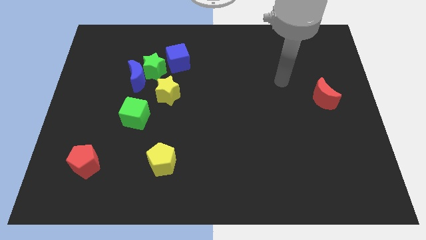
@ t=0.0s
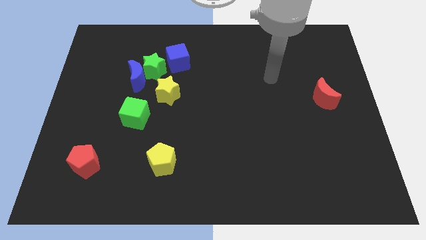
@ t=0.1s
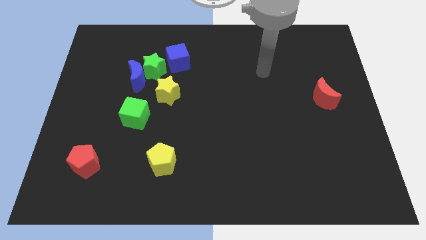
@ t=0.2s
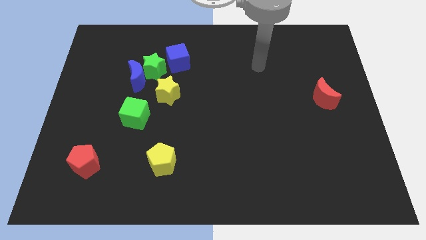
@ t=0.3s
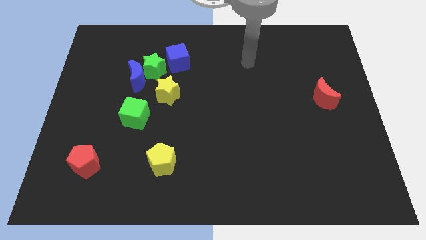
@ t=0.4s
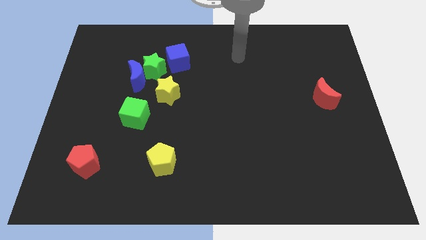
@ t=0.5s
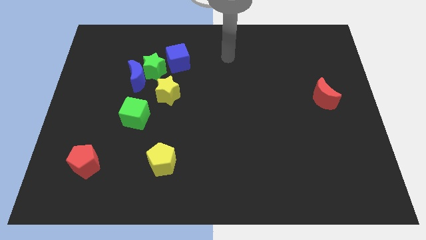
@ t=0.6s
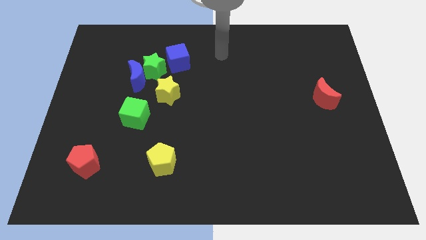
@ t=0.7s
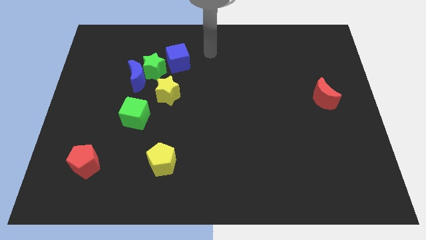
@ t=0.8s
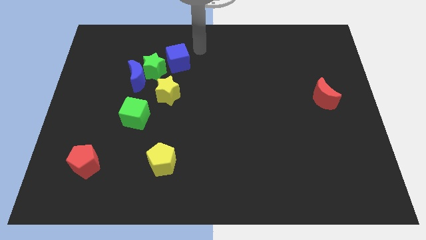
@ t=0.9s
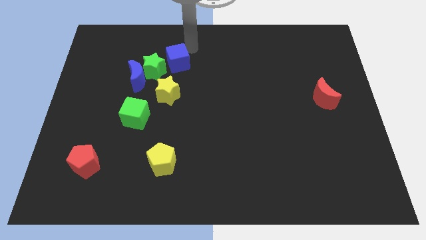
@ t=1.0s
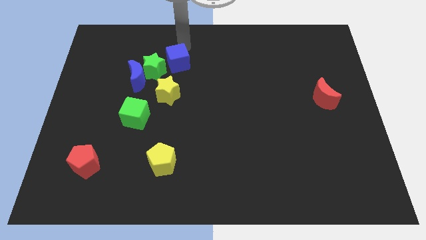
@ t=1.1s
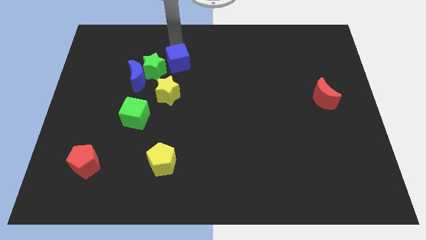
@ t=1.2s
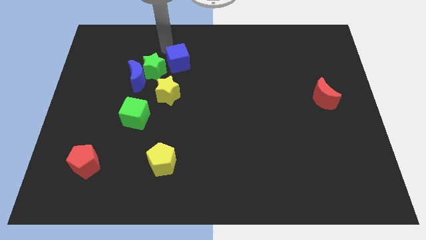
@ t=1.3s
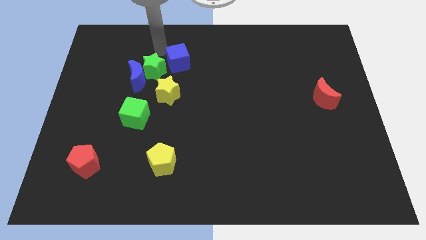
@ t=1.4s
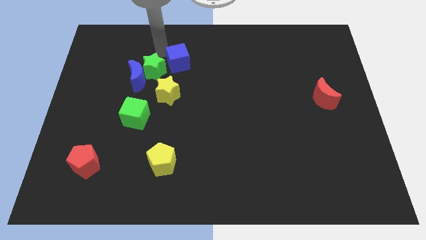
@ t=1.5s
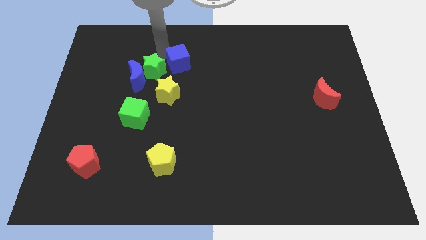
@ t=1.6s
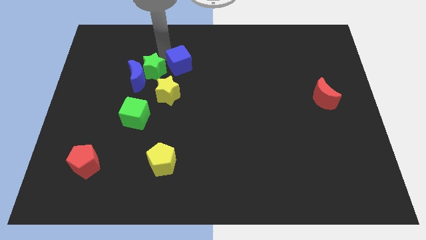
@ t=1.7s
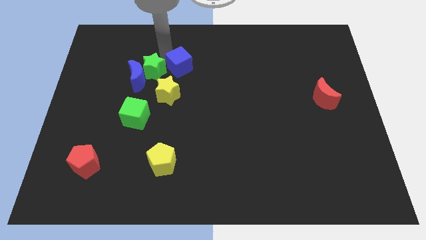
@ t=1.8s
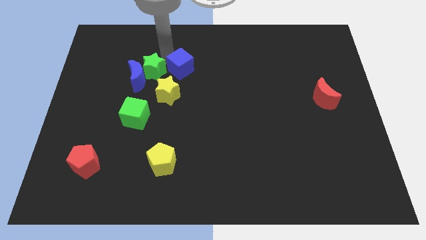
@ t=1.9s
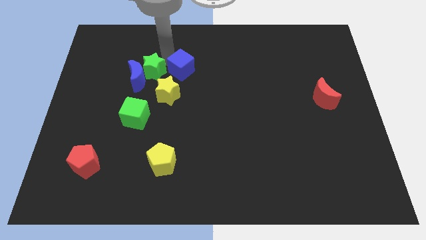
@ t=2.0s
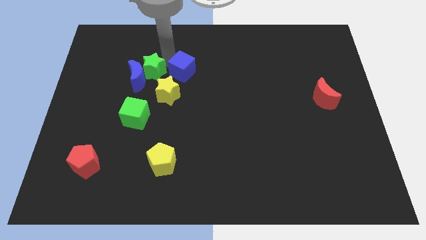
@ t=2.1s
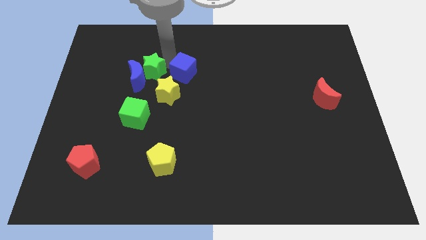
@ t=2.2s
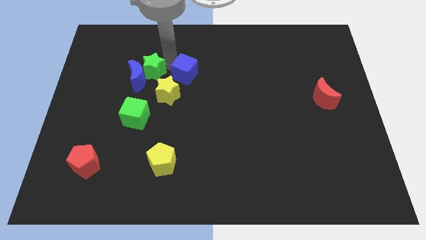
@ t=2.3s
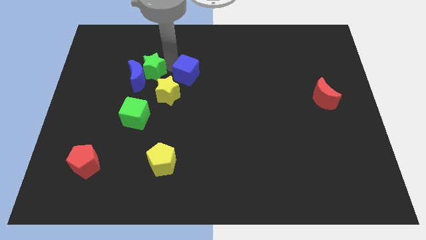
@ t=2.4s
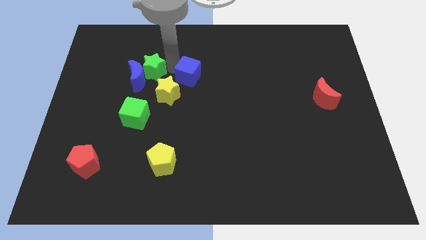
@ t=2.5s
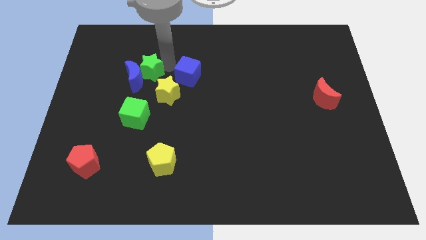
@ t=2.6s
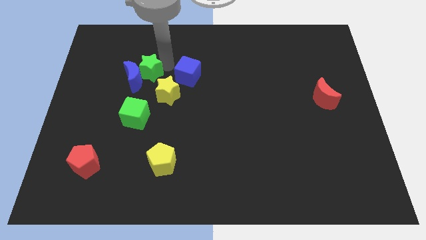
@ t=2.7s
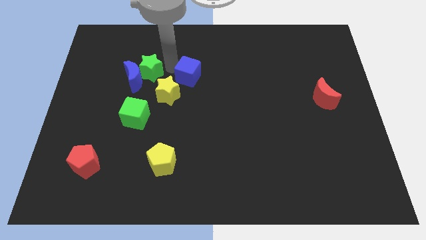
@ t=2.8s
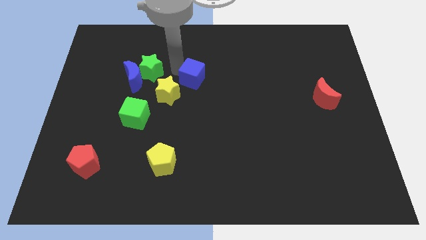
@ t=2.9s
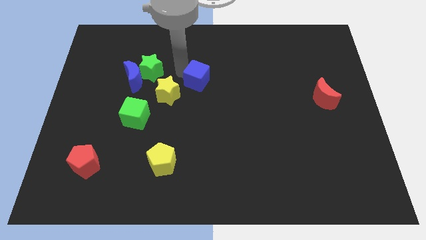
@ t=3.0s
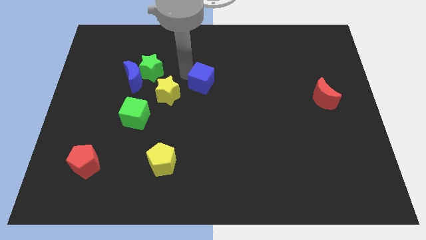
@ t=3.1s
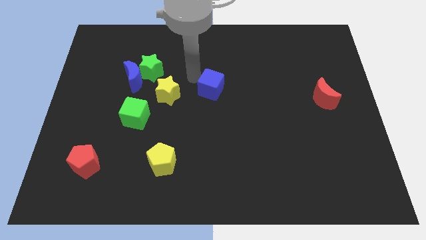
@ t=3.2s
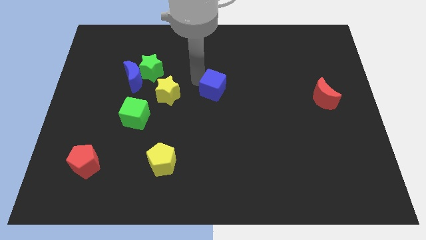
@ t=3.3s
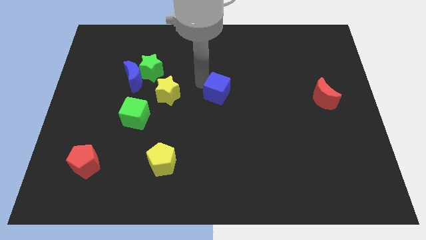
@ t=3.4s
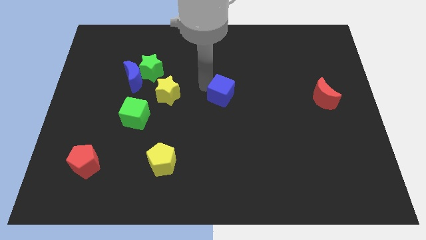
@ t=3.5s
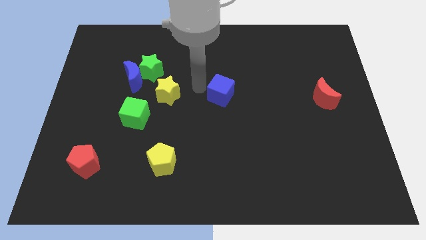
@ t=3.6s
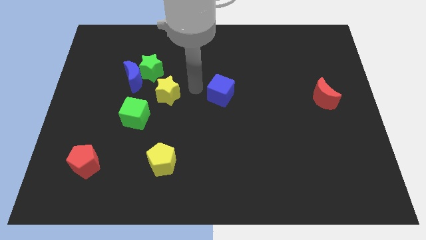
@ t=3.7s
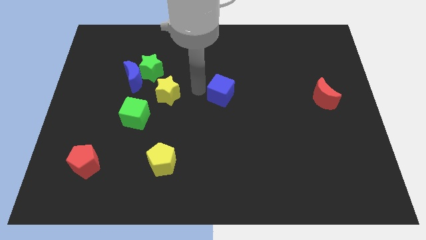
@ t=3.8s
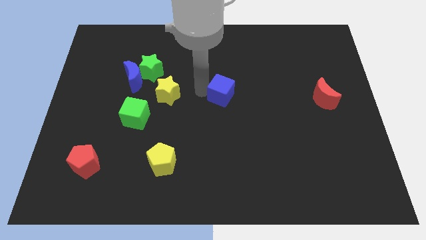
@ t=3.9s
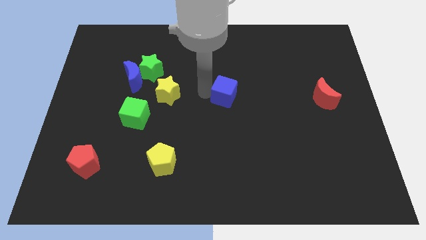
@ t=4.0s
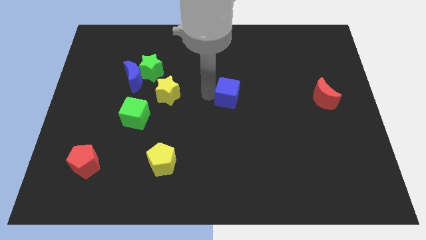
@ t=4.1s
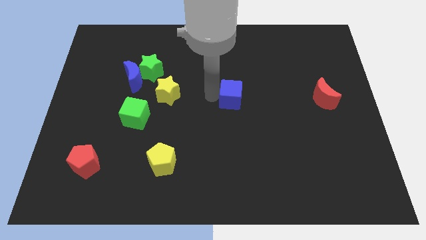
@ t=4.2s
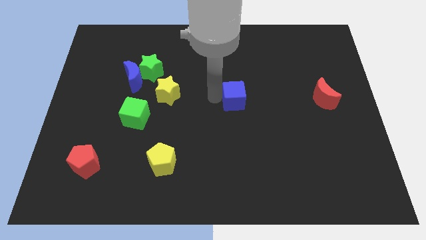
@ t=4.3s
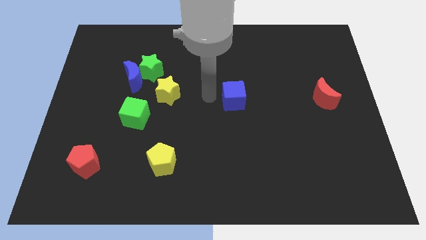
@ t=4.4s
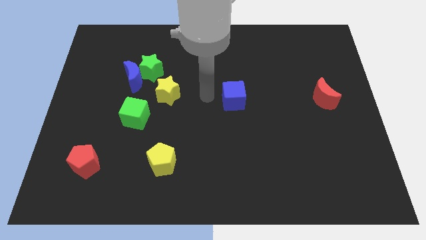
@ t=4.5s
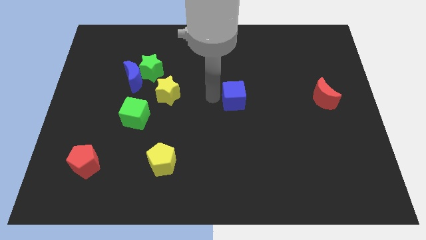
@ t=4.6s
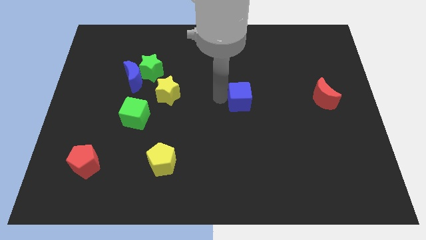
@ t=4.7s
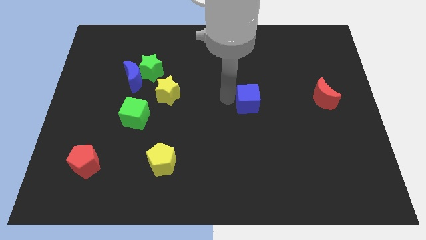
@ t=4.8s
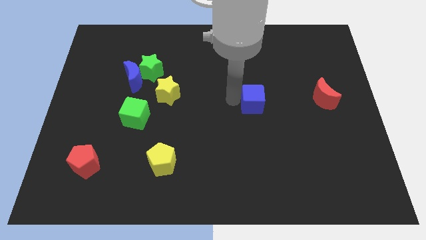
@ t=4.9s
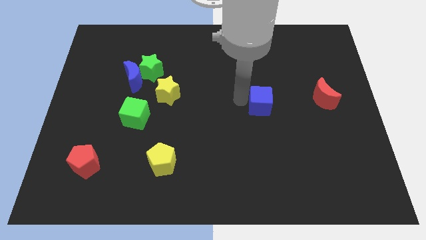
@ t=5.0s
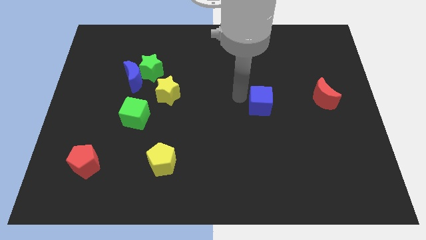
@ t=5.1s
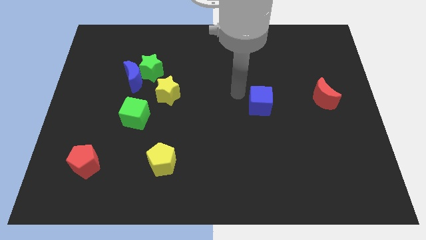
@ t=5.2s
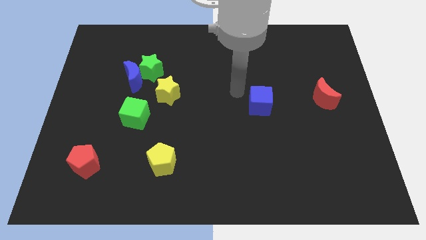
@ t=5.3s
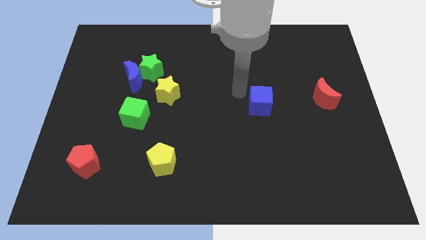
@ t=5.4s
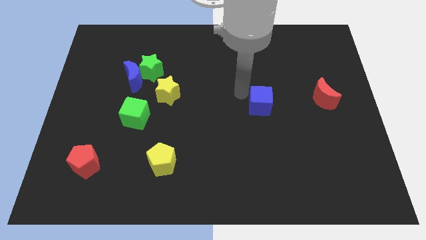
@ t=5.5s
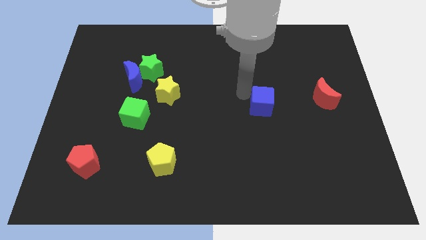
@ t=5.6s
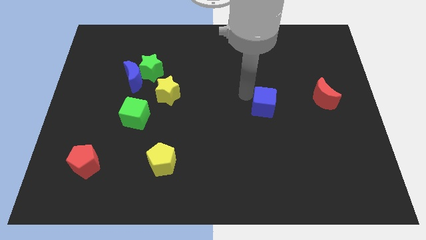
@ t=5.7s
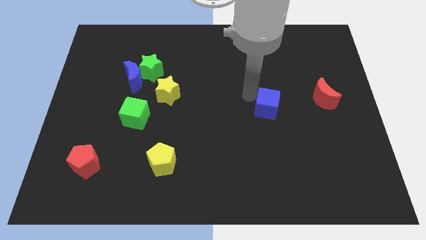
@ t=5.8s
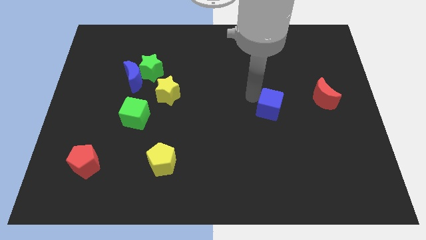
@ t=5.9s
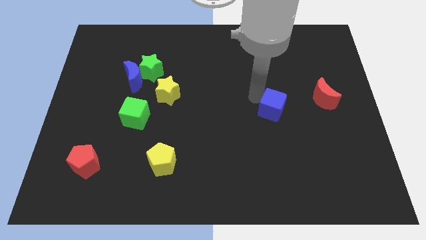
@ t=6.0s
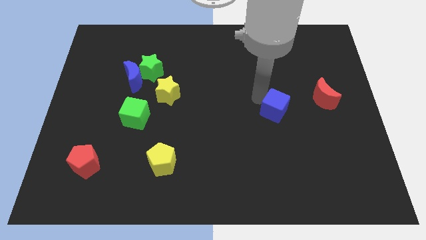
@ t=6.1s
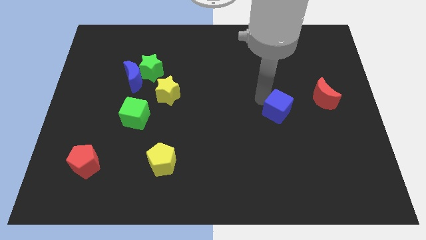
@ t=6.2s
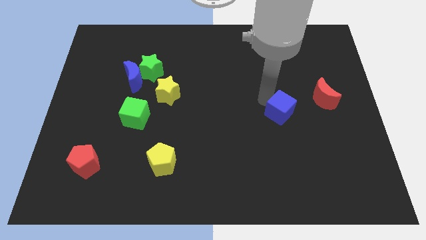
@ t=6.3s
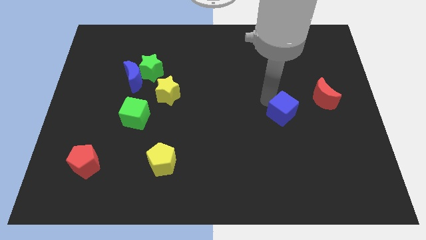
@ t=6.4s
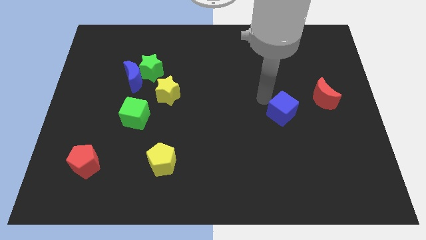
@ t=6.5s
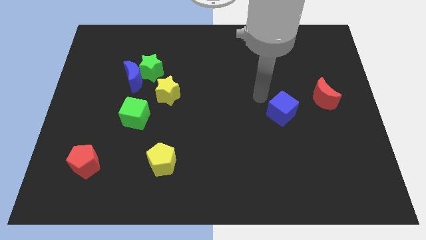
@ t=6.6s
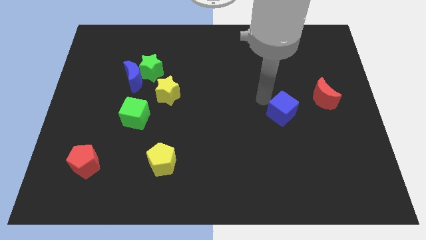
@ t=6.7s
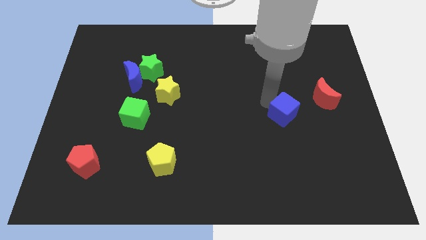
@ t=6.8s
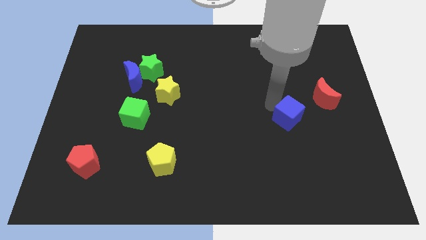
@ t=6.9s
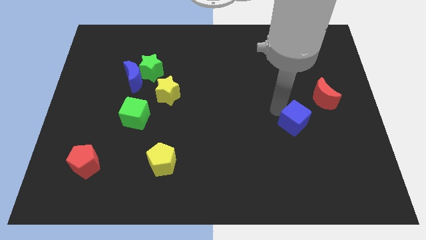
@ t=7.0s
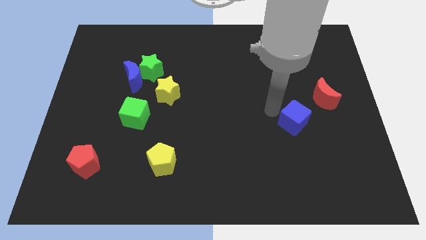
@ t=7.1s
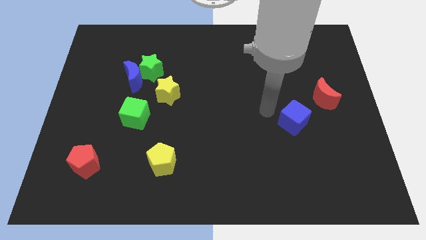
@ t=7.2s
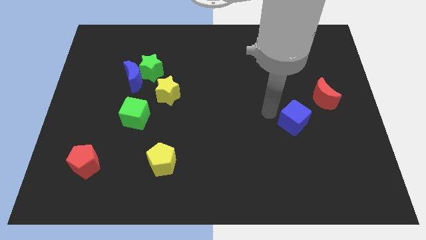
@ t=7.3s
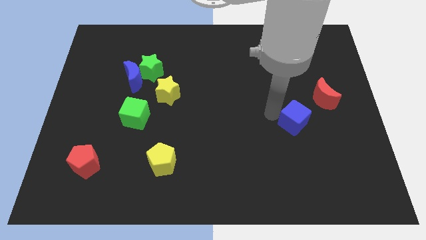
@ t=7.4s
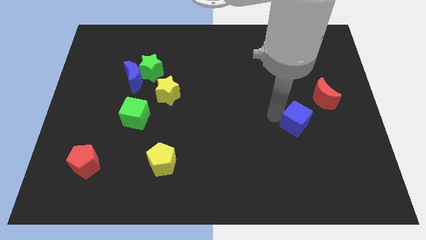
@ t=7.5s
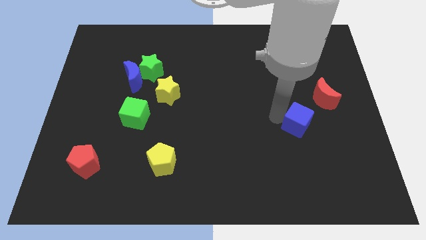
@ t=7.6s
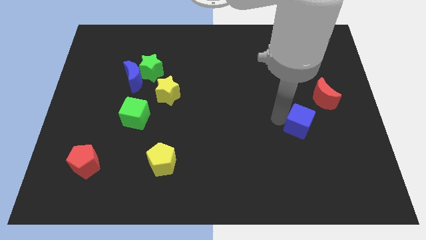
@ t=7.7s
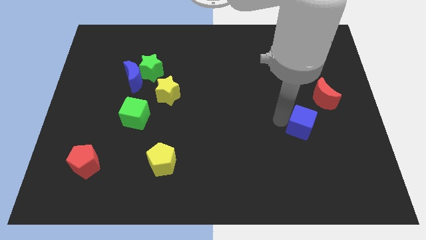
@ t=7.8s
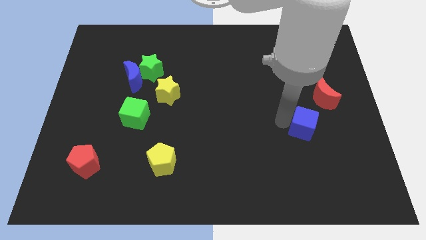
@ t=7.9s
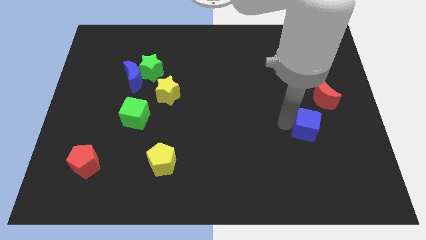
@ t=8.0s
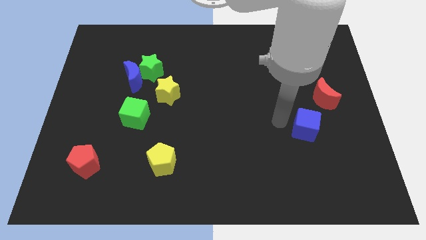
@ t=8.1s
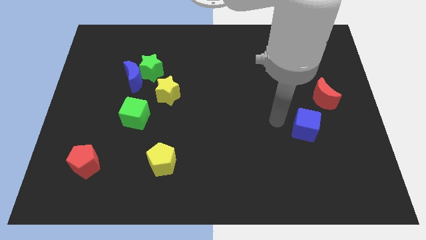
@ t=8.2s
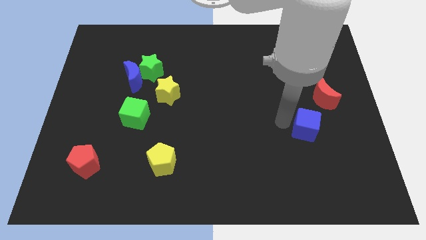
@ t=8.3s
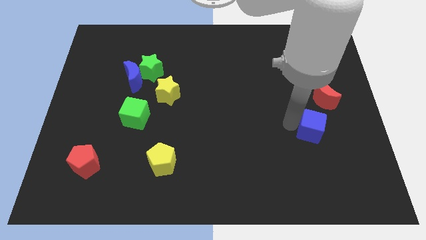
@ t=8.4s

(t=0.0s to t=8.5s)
push the blue cube below the red moon
